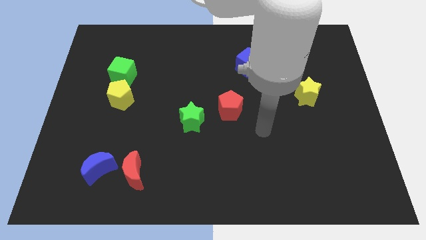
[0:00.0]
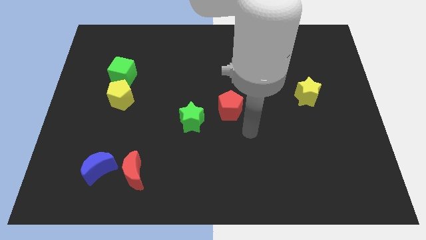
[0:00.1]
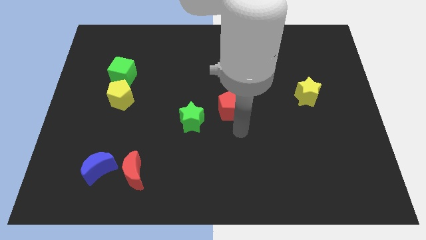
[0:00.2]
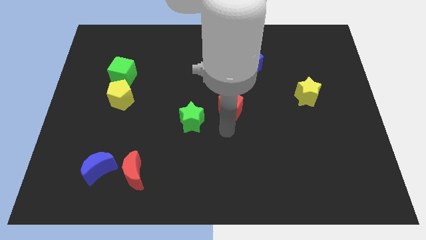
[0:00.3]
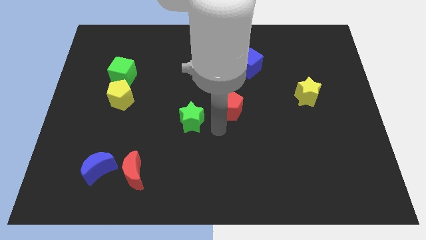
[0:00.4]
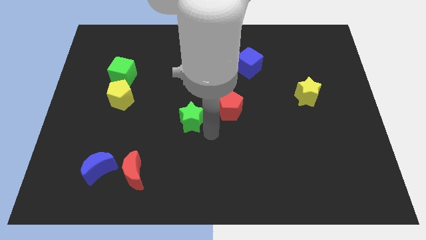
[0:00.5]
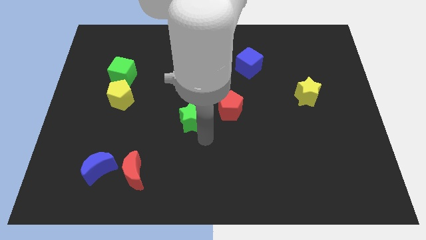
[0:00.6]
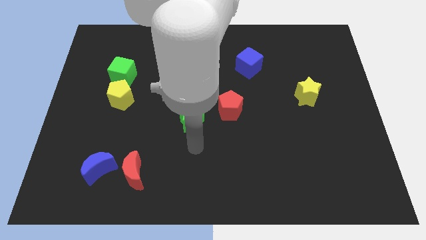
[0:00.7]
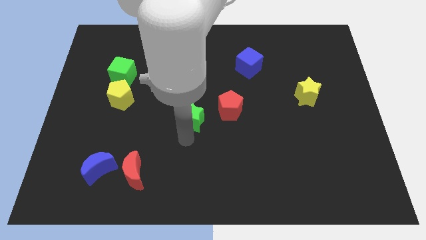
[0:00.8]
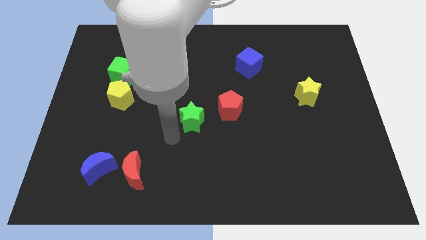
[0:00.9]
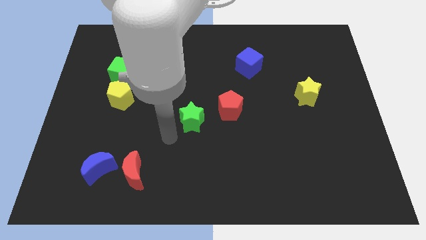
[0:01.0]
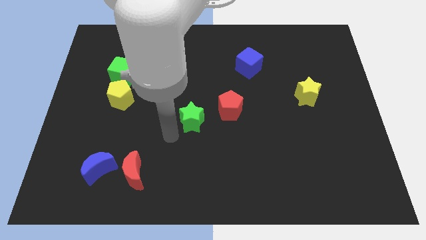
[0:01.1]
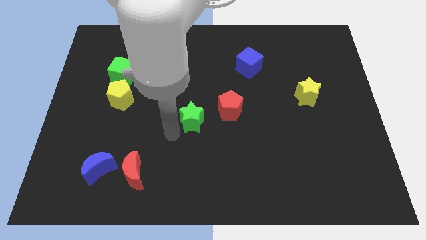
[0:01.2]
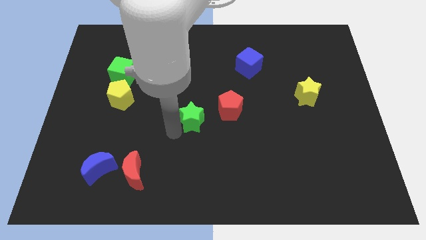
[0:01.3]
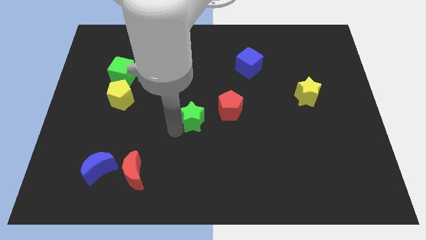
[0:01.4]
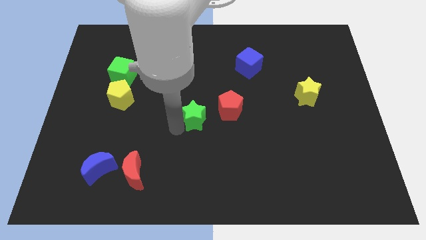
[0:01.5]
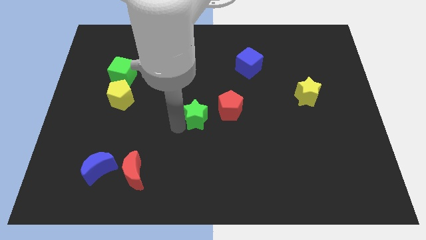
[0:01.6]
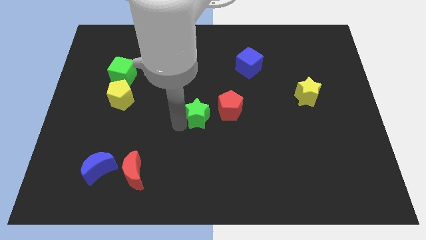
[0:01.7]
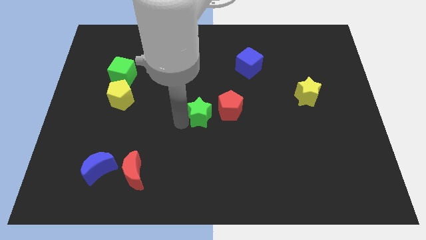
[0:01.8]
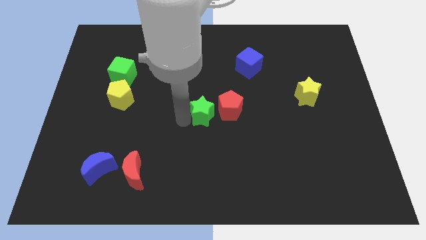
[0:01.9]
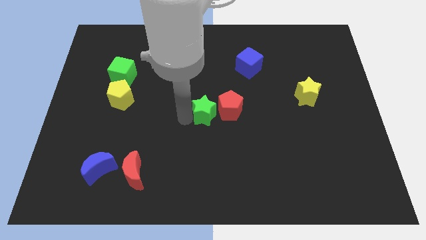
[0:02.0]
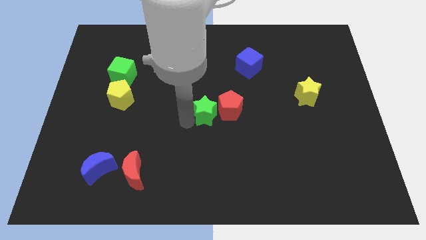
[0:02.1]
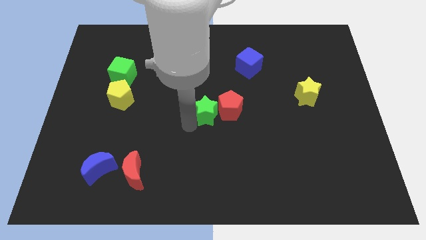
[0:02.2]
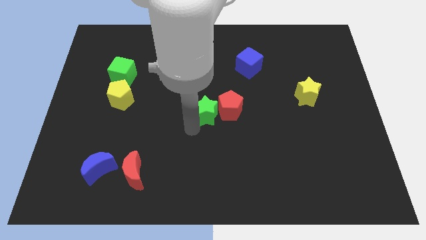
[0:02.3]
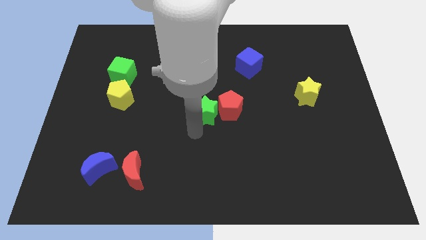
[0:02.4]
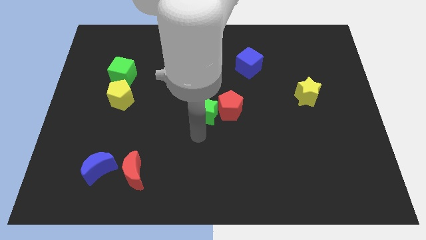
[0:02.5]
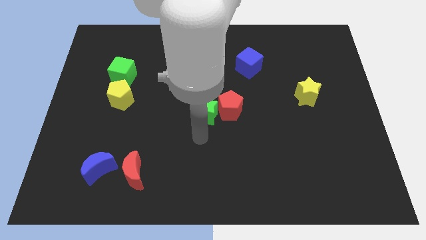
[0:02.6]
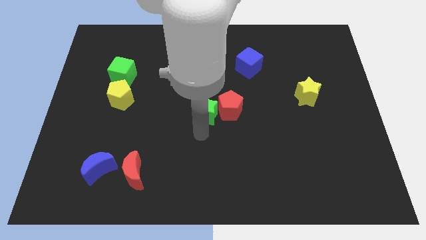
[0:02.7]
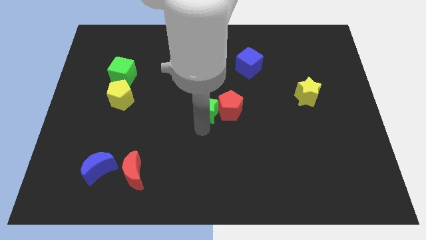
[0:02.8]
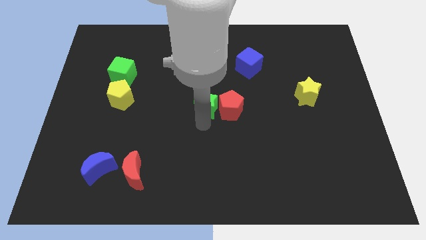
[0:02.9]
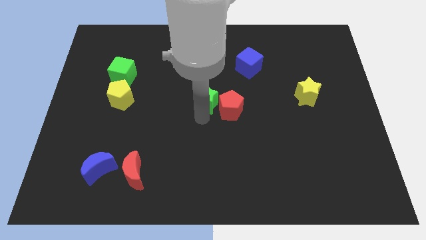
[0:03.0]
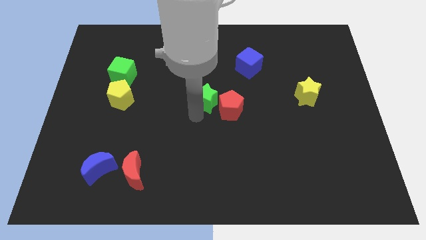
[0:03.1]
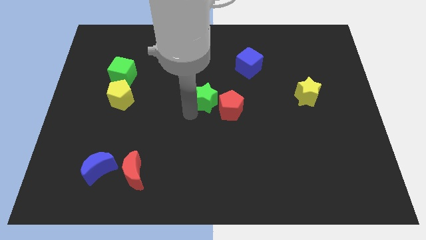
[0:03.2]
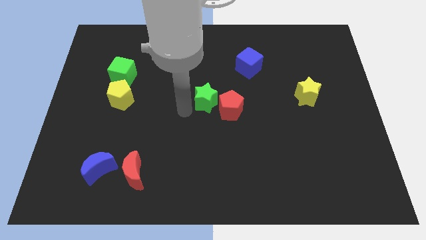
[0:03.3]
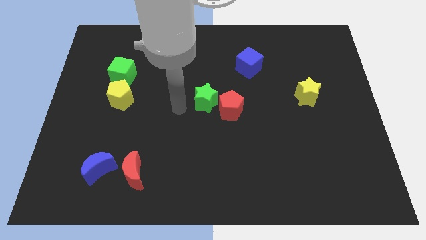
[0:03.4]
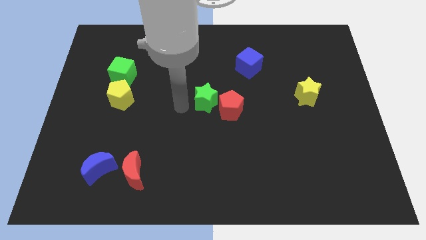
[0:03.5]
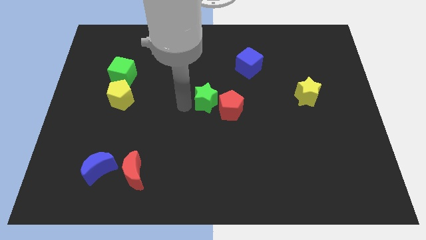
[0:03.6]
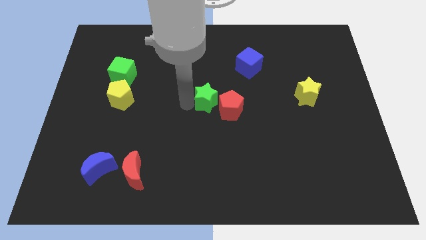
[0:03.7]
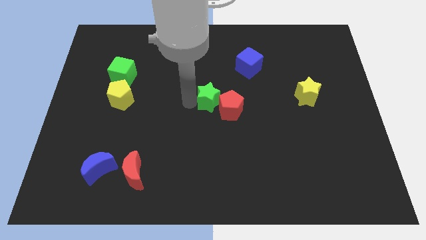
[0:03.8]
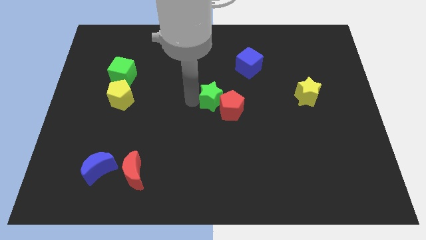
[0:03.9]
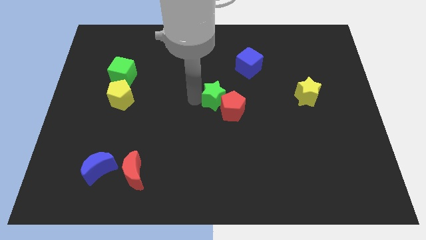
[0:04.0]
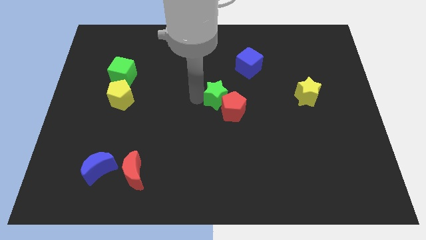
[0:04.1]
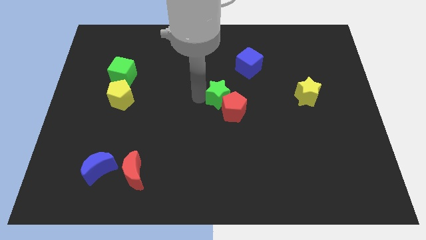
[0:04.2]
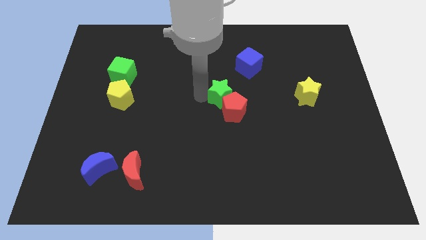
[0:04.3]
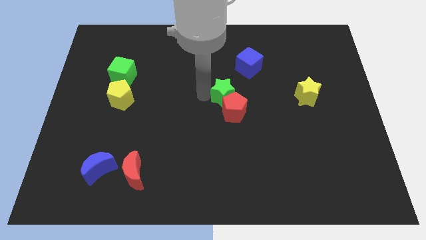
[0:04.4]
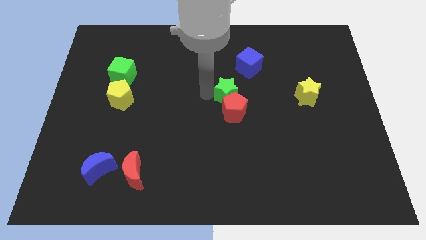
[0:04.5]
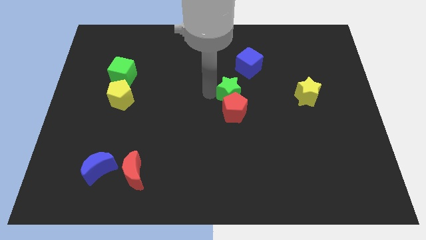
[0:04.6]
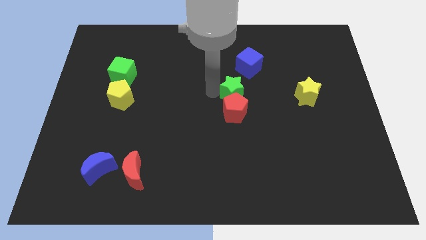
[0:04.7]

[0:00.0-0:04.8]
push the green star to the bottom side of the blue cube

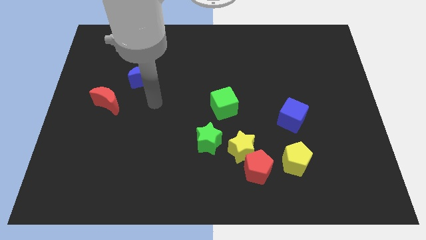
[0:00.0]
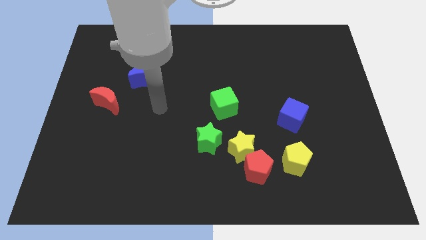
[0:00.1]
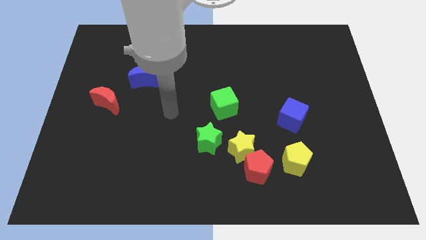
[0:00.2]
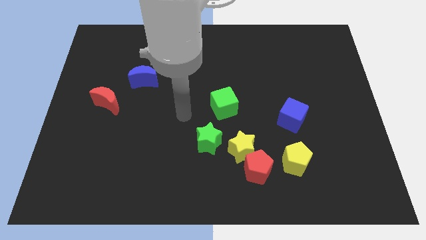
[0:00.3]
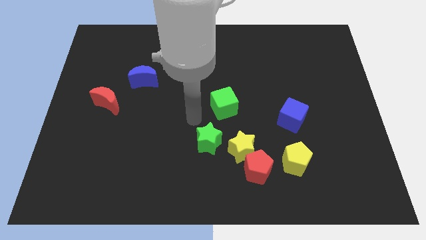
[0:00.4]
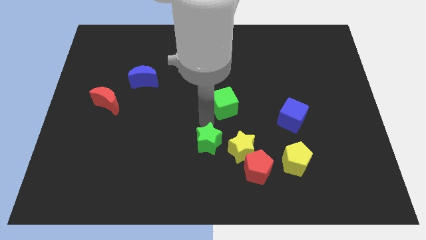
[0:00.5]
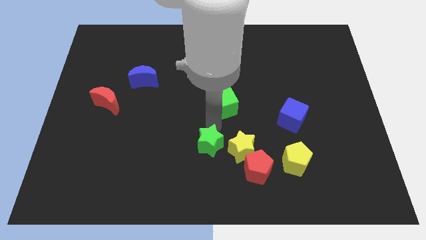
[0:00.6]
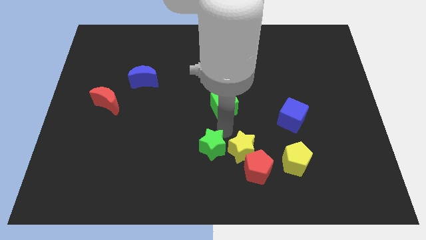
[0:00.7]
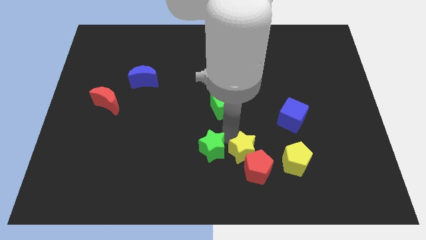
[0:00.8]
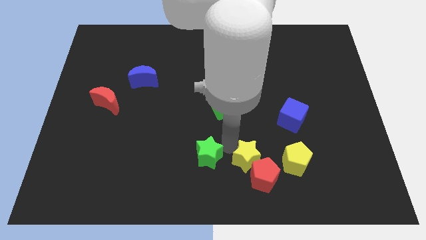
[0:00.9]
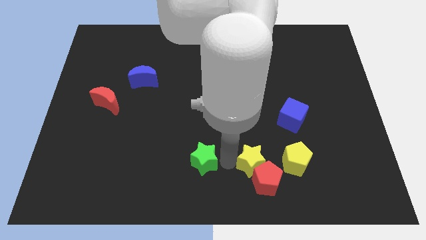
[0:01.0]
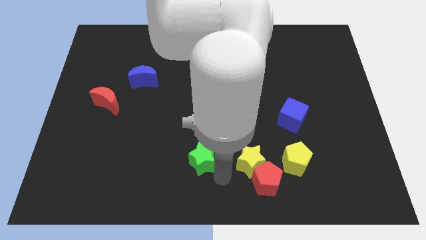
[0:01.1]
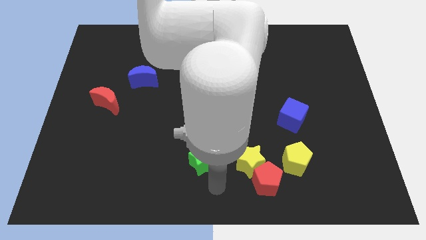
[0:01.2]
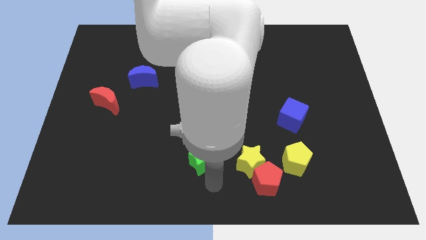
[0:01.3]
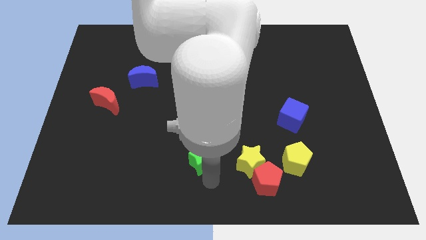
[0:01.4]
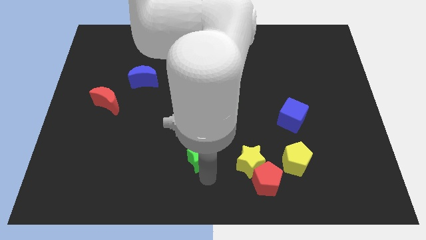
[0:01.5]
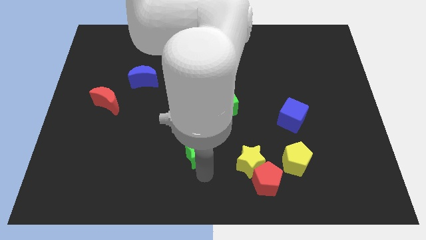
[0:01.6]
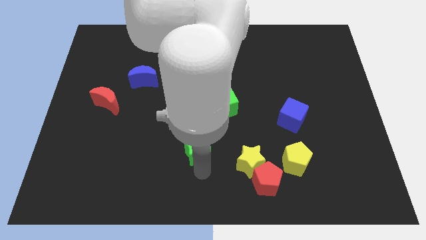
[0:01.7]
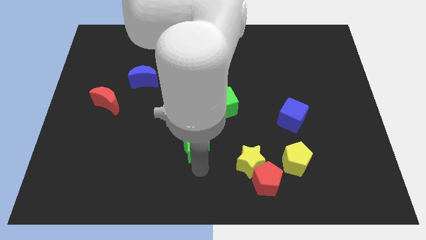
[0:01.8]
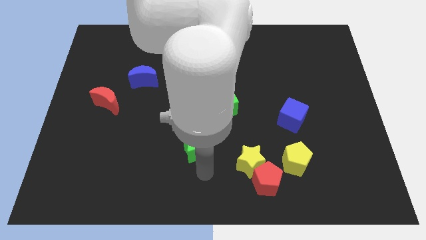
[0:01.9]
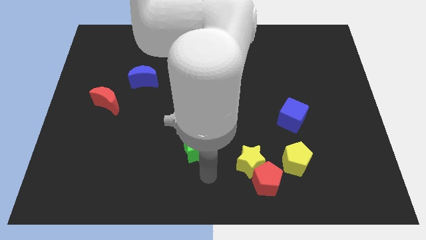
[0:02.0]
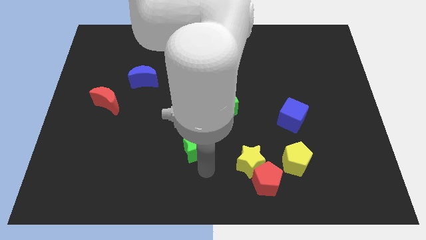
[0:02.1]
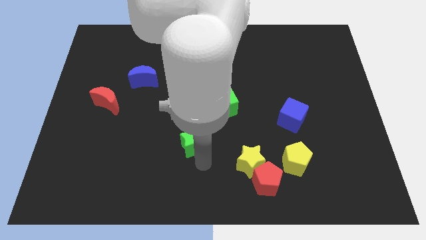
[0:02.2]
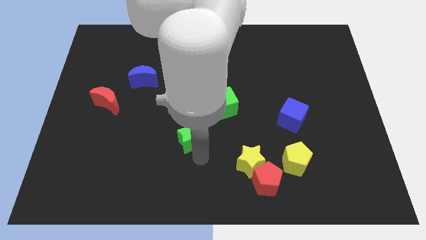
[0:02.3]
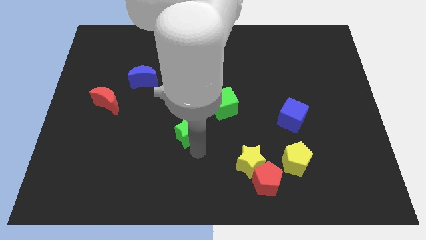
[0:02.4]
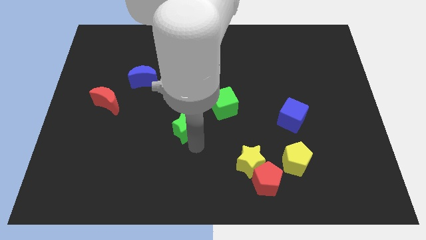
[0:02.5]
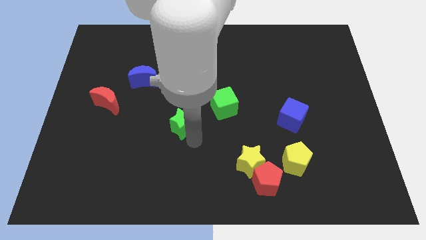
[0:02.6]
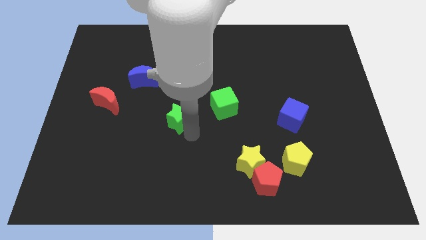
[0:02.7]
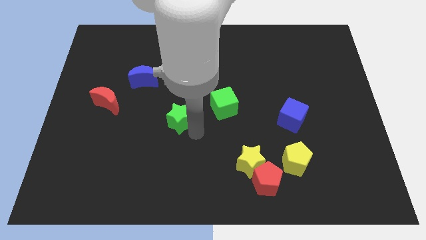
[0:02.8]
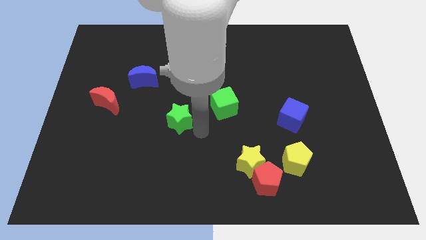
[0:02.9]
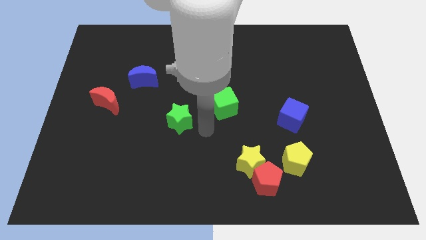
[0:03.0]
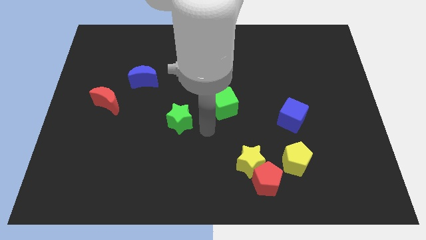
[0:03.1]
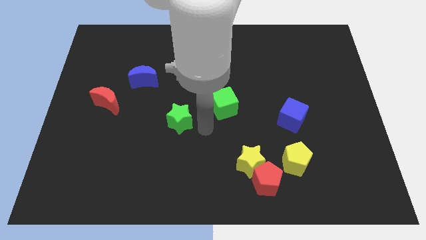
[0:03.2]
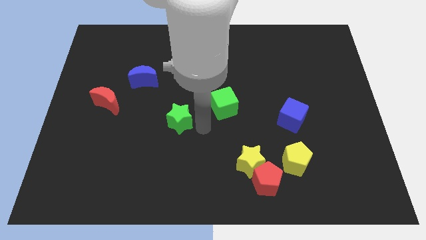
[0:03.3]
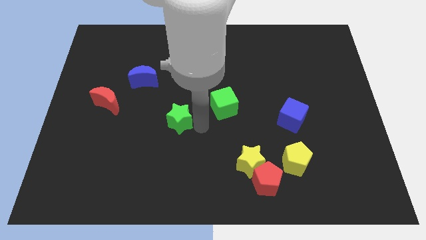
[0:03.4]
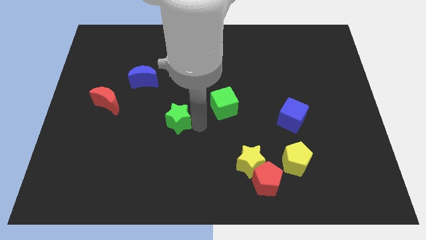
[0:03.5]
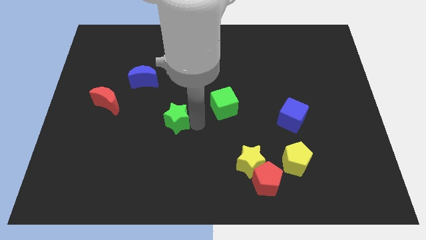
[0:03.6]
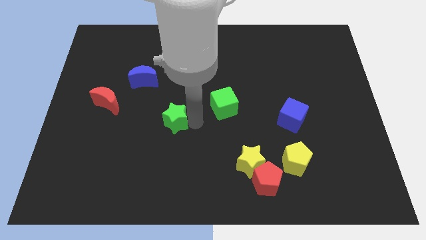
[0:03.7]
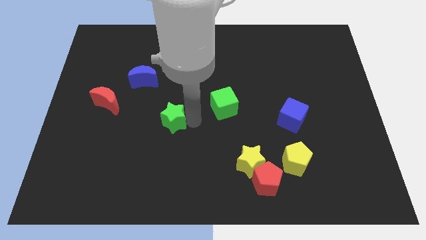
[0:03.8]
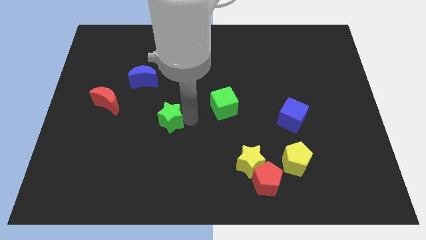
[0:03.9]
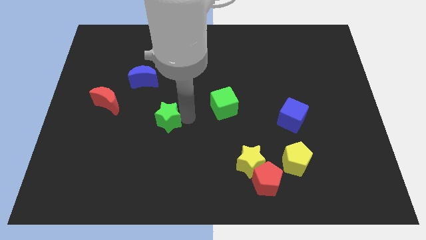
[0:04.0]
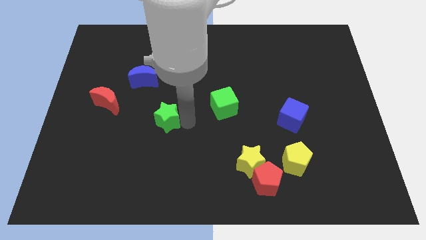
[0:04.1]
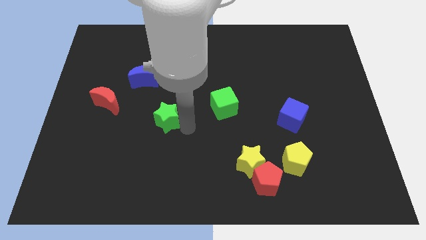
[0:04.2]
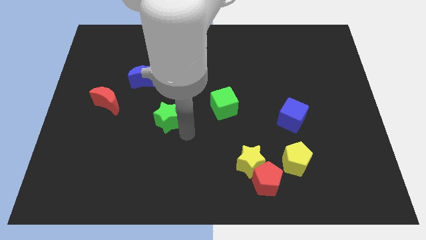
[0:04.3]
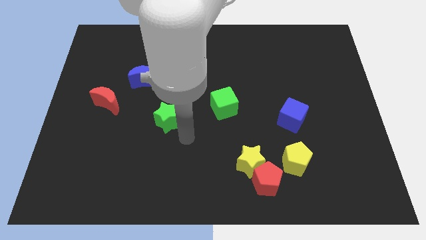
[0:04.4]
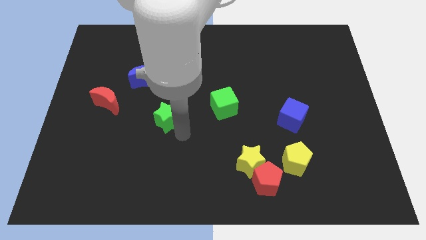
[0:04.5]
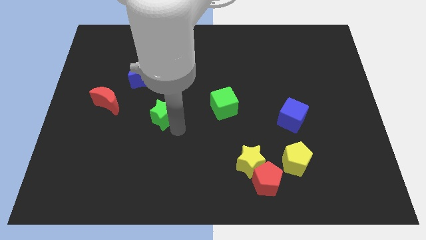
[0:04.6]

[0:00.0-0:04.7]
put the green star to the right side of the red moon
